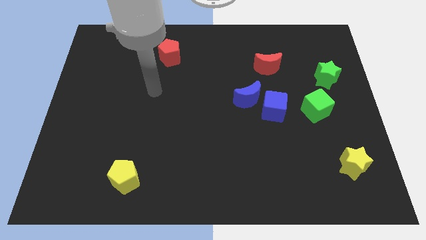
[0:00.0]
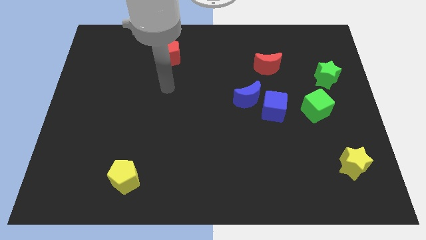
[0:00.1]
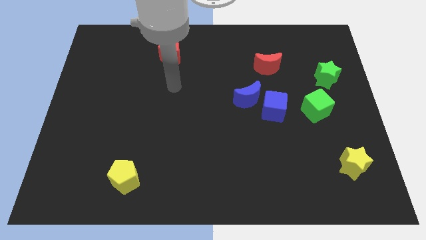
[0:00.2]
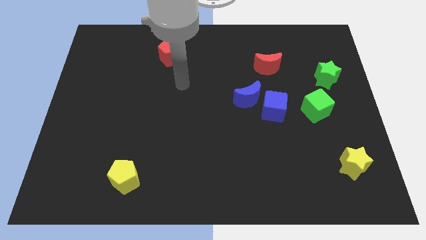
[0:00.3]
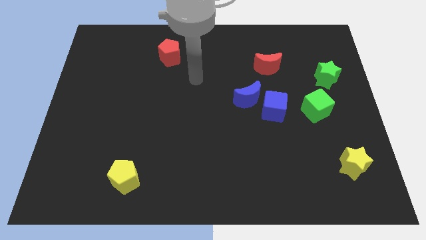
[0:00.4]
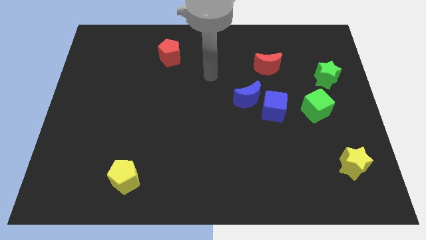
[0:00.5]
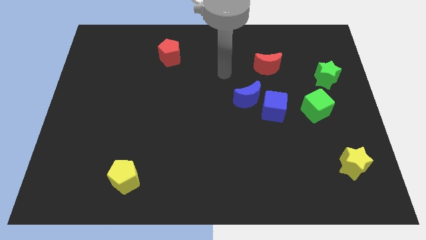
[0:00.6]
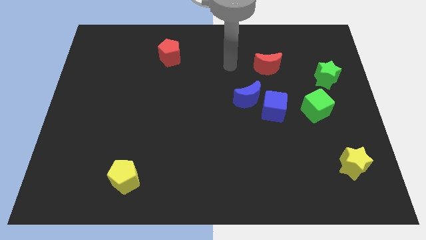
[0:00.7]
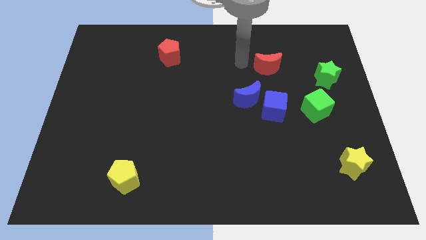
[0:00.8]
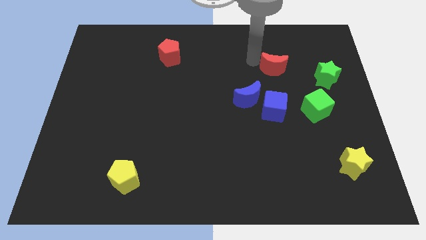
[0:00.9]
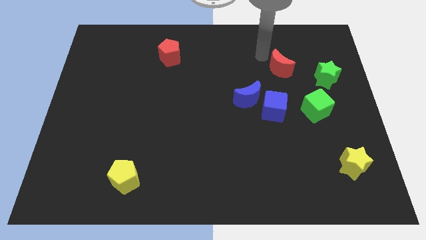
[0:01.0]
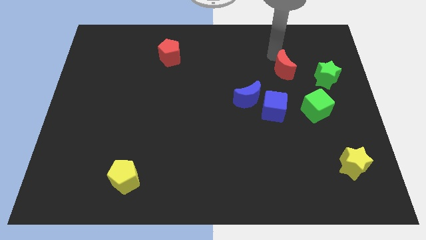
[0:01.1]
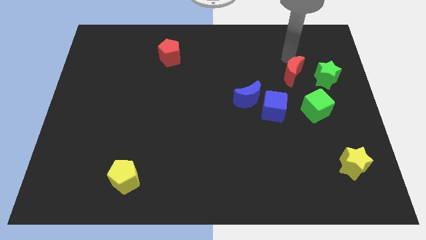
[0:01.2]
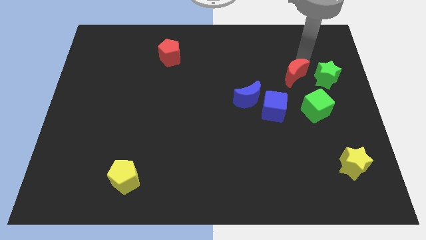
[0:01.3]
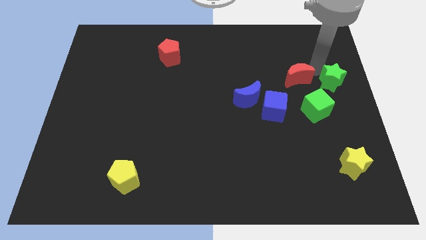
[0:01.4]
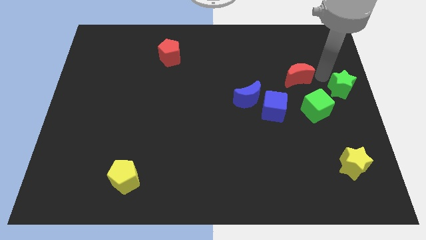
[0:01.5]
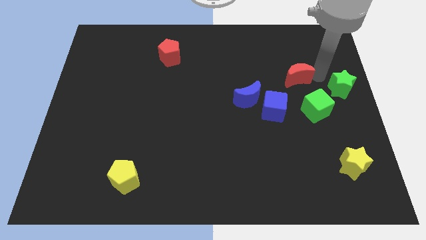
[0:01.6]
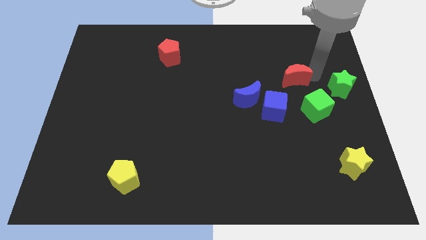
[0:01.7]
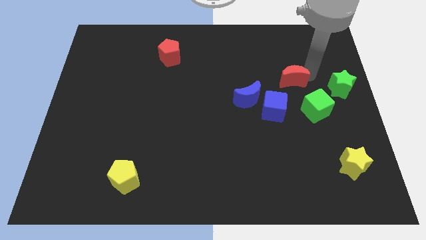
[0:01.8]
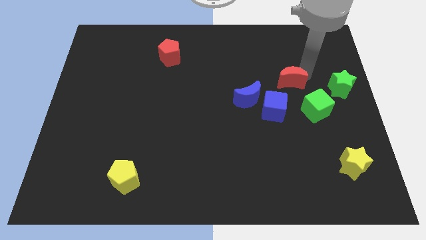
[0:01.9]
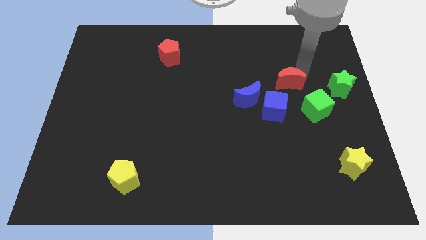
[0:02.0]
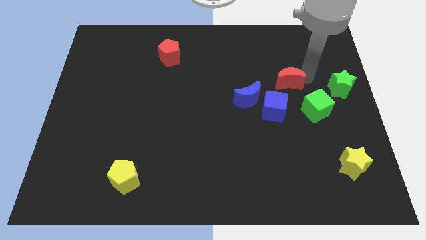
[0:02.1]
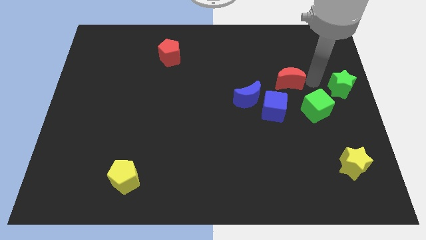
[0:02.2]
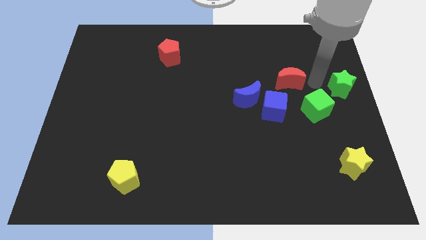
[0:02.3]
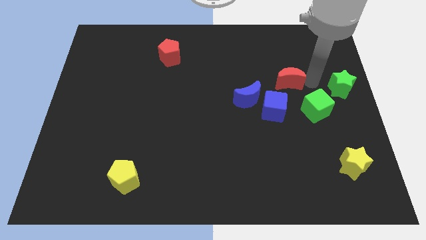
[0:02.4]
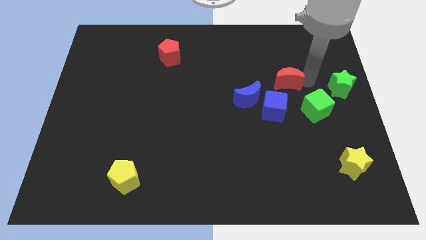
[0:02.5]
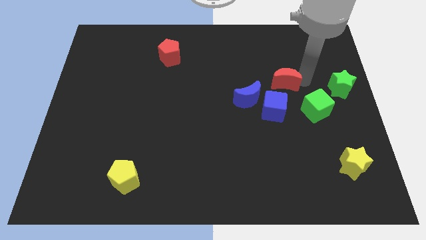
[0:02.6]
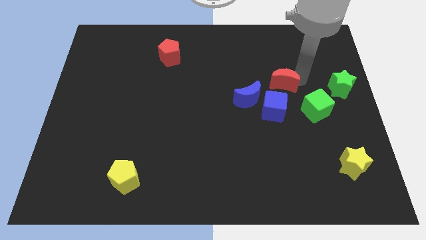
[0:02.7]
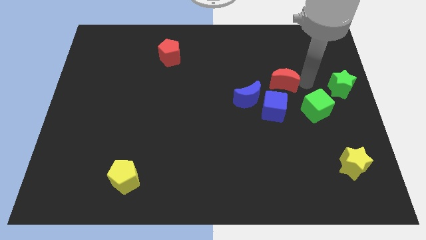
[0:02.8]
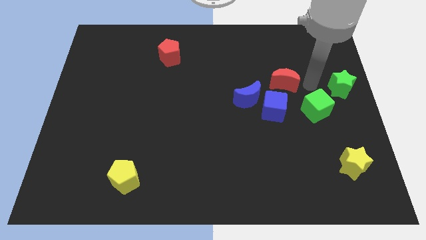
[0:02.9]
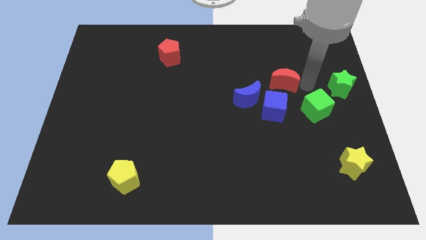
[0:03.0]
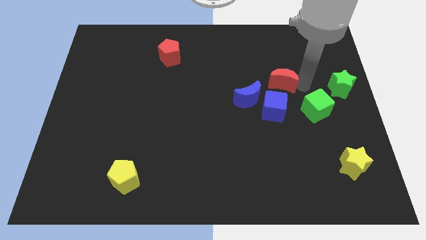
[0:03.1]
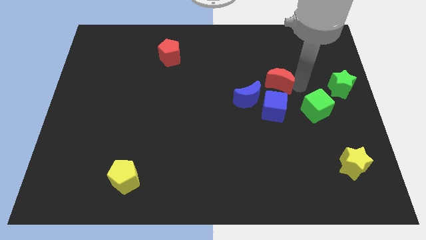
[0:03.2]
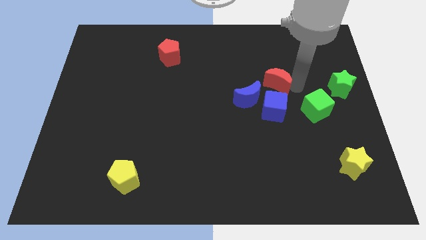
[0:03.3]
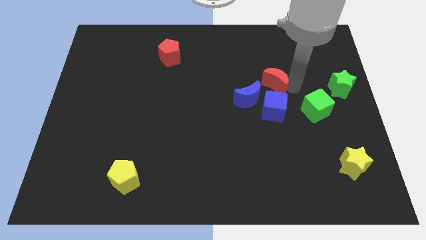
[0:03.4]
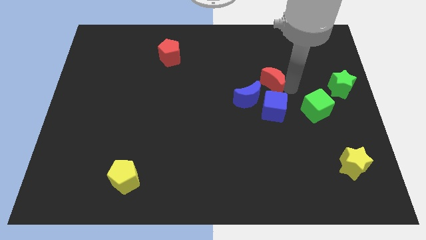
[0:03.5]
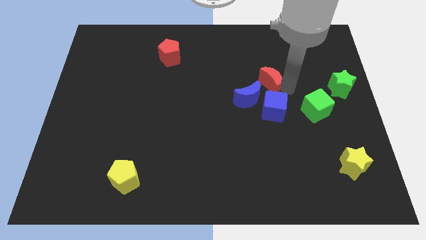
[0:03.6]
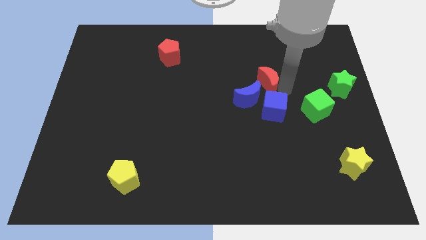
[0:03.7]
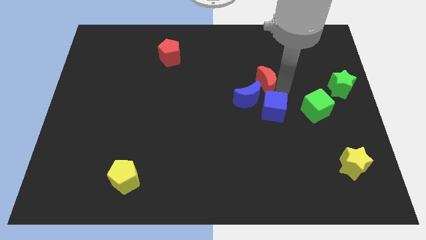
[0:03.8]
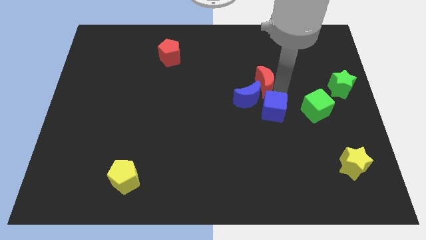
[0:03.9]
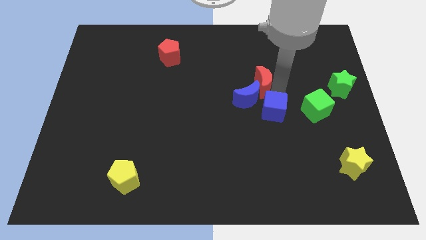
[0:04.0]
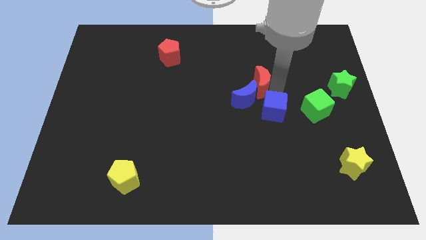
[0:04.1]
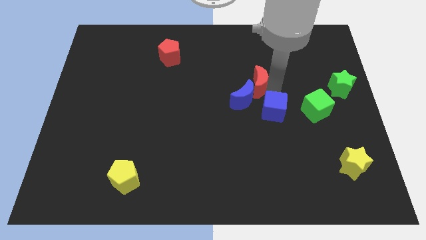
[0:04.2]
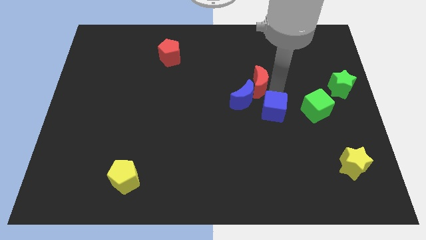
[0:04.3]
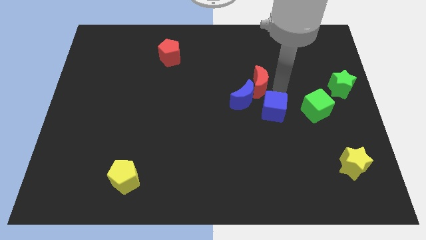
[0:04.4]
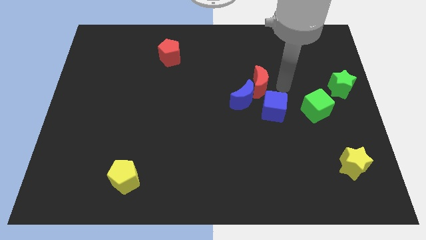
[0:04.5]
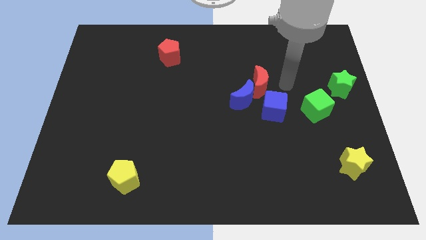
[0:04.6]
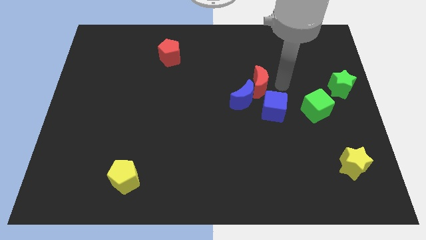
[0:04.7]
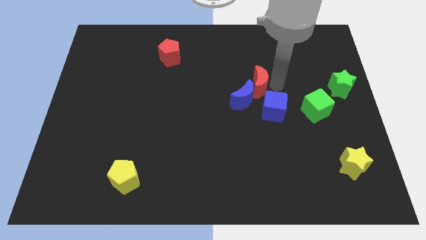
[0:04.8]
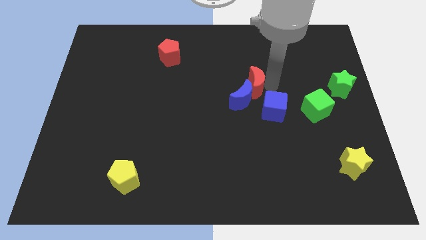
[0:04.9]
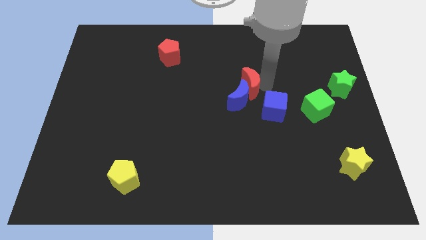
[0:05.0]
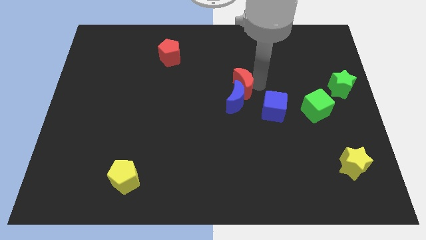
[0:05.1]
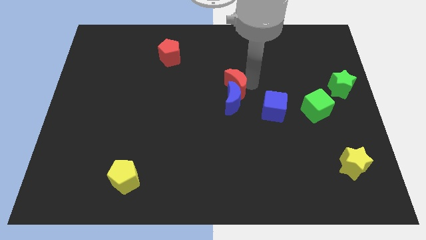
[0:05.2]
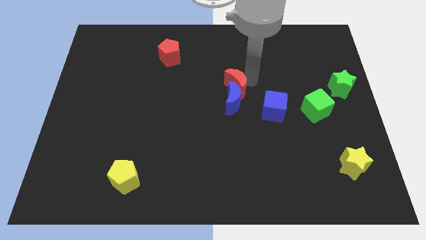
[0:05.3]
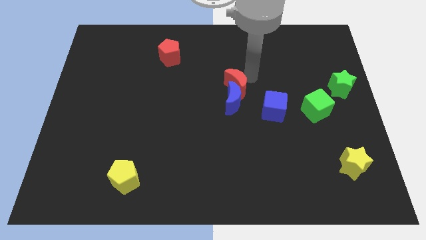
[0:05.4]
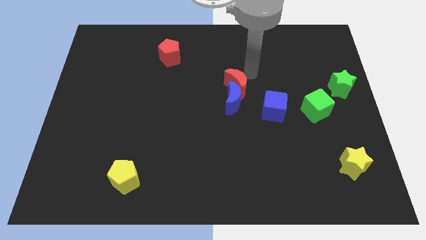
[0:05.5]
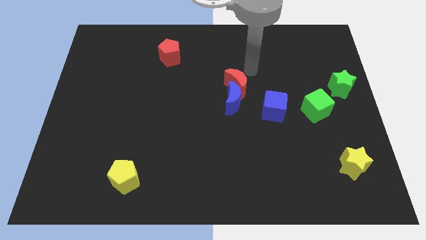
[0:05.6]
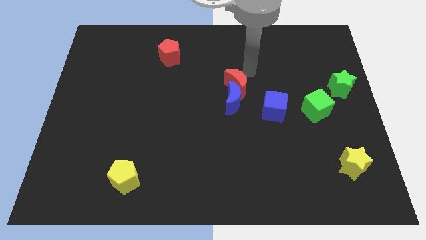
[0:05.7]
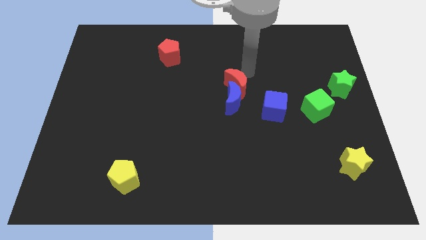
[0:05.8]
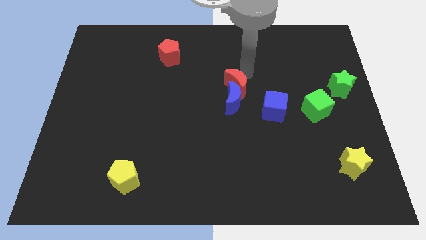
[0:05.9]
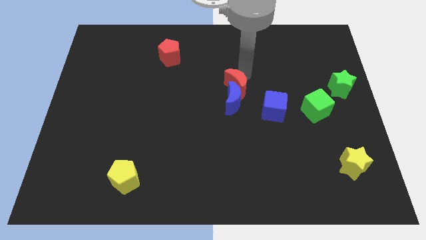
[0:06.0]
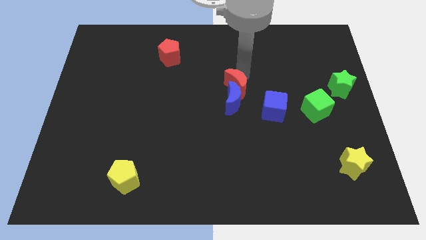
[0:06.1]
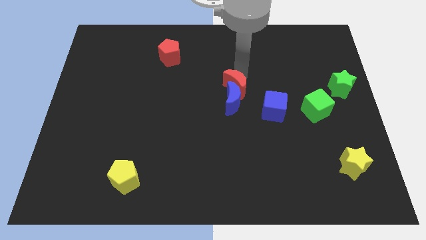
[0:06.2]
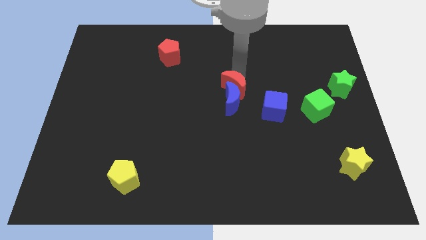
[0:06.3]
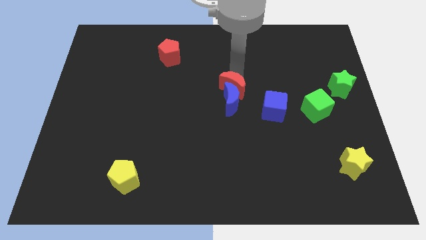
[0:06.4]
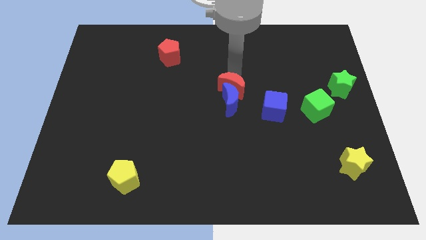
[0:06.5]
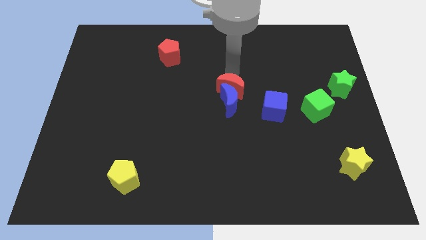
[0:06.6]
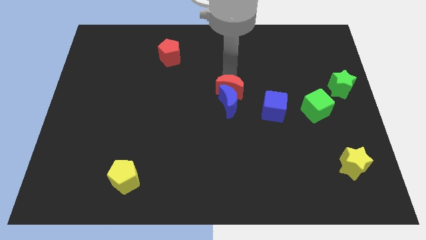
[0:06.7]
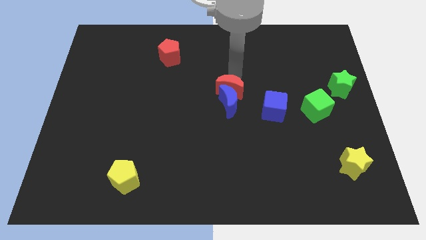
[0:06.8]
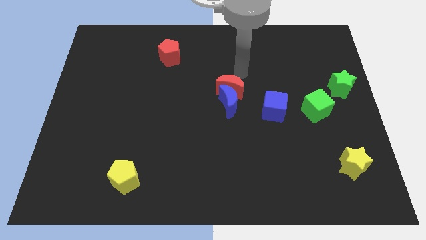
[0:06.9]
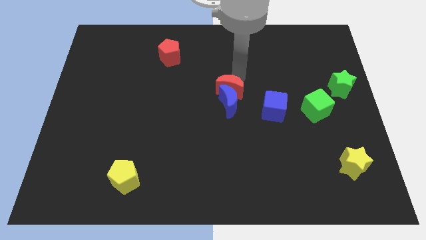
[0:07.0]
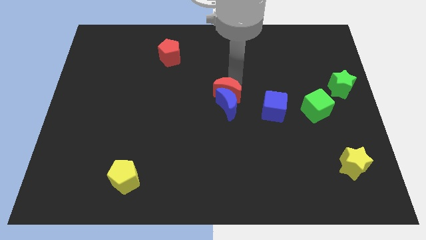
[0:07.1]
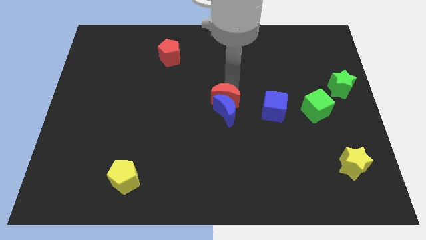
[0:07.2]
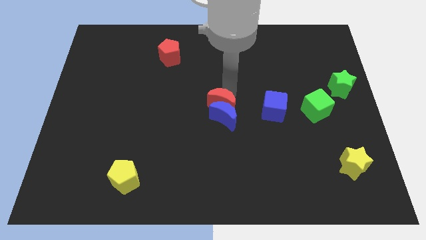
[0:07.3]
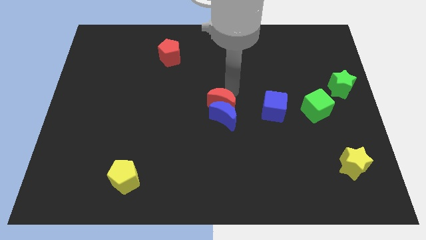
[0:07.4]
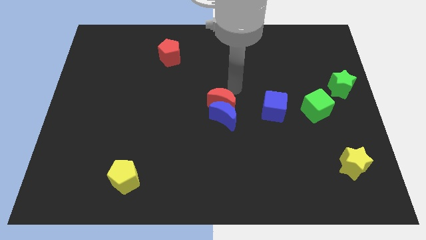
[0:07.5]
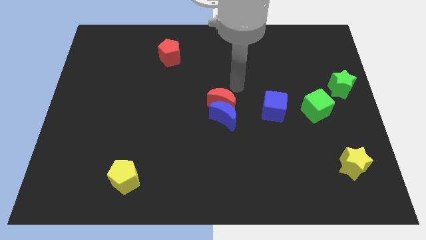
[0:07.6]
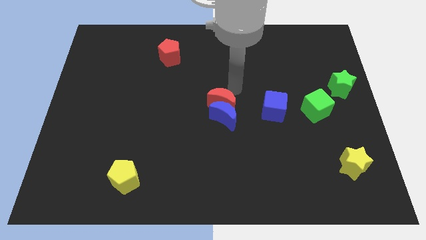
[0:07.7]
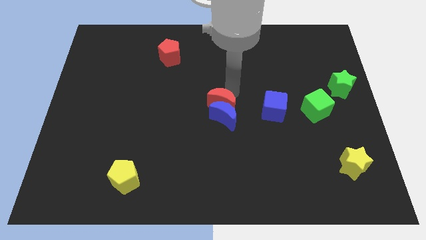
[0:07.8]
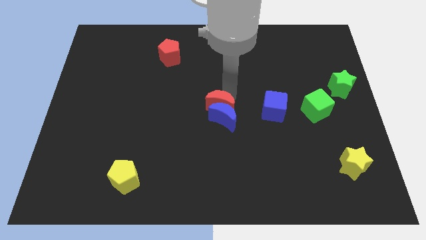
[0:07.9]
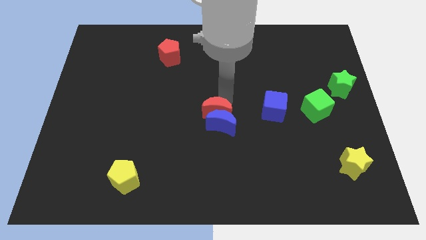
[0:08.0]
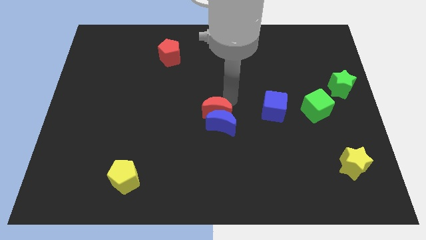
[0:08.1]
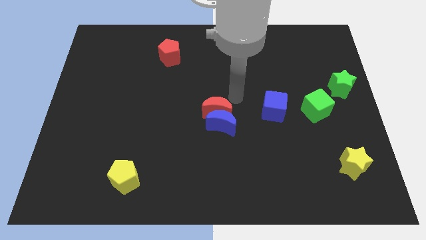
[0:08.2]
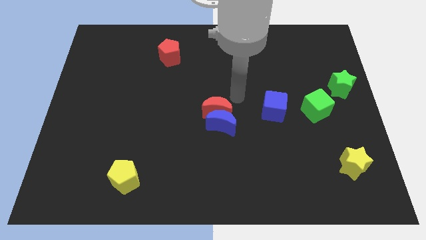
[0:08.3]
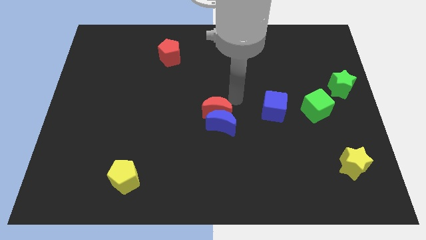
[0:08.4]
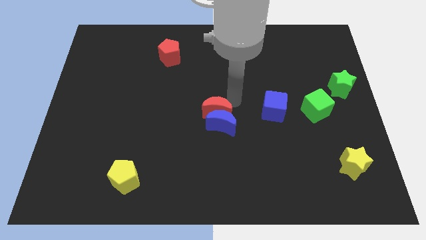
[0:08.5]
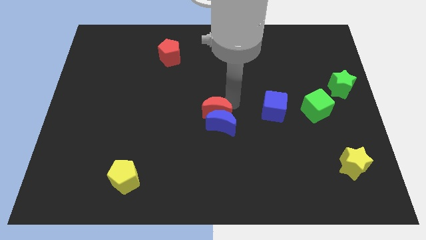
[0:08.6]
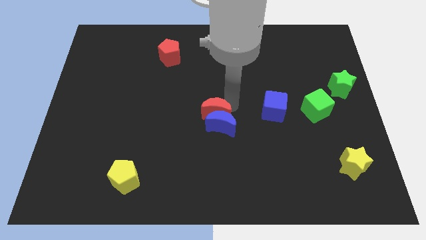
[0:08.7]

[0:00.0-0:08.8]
push the red moon downwards and then to the left
